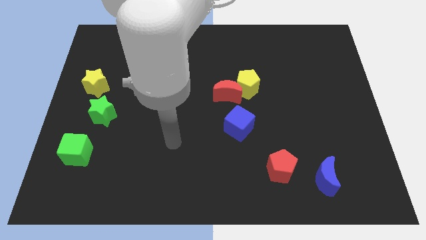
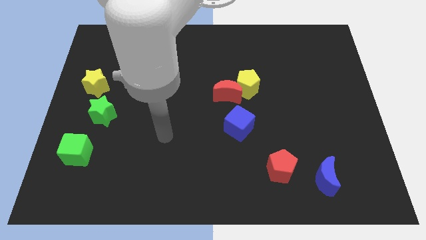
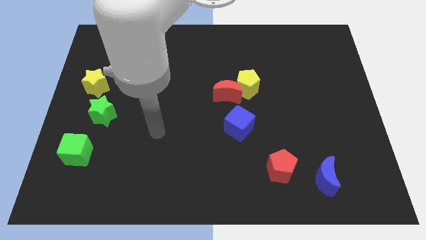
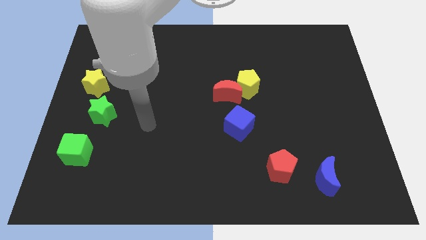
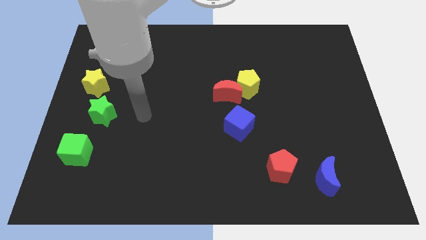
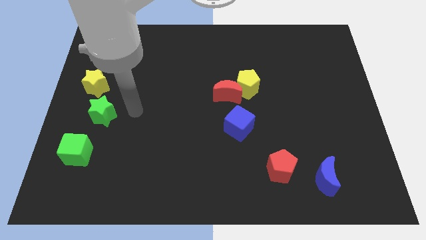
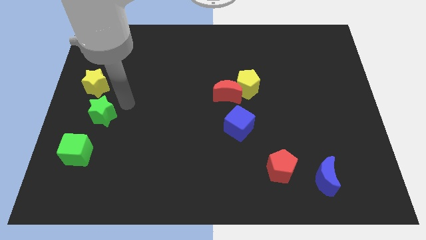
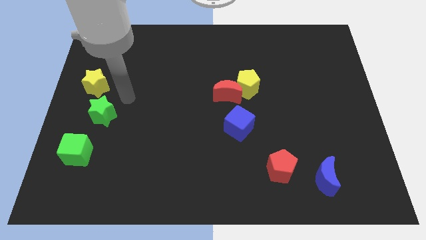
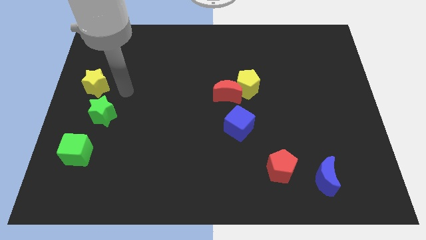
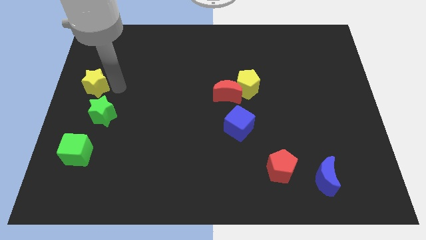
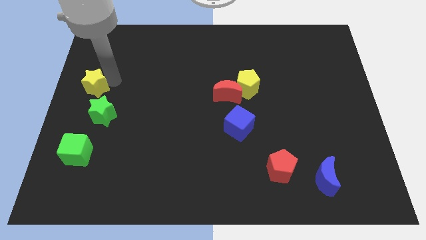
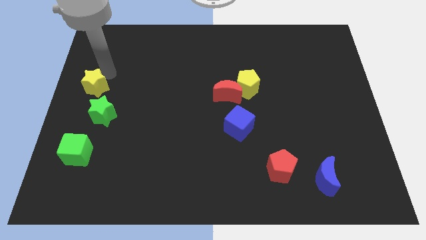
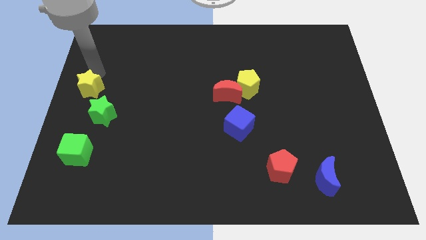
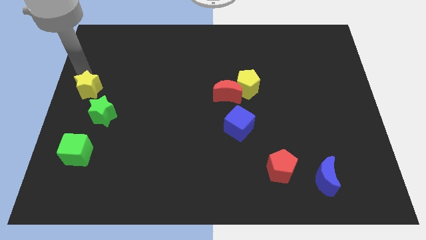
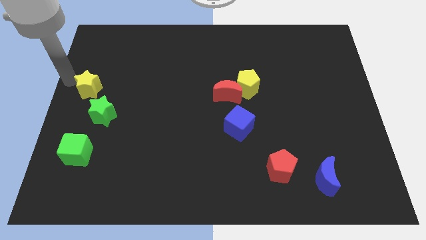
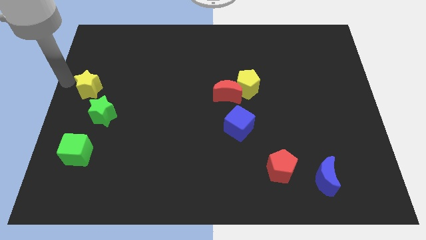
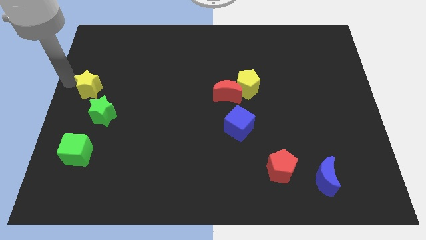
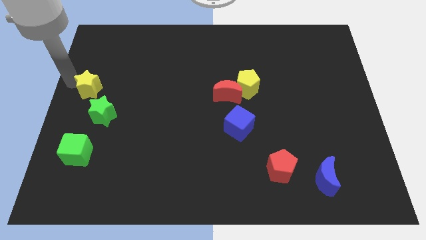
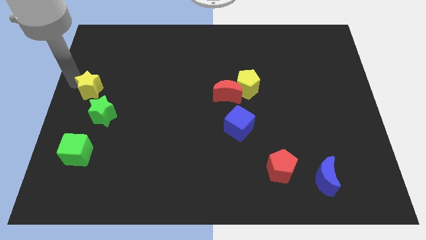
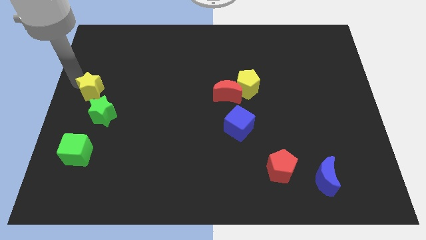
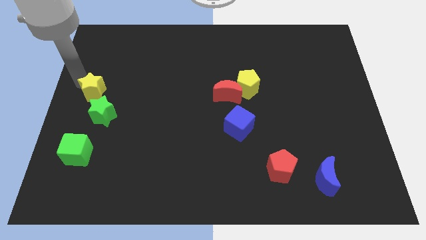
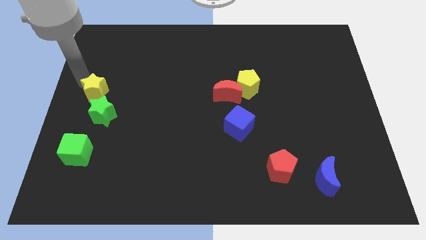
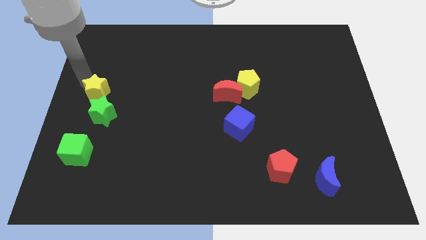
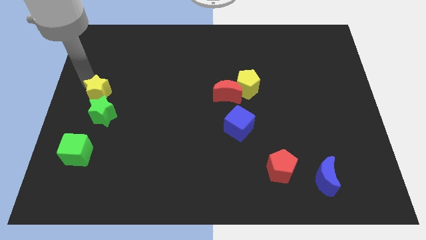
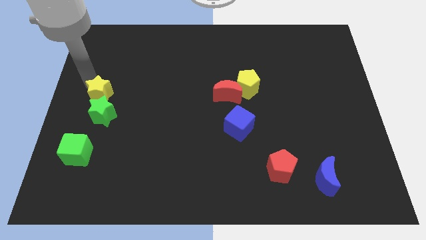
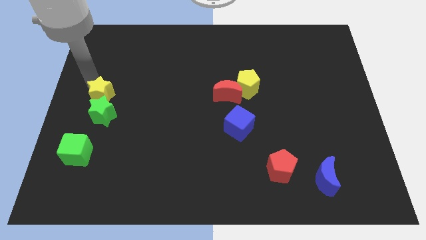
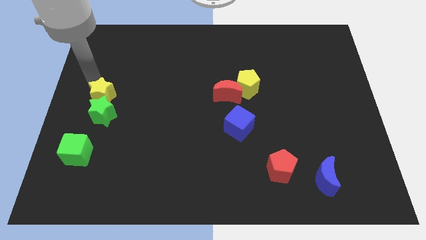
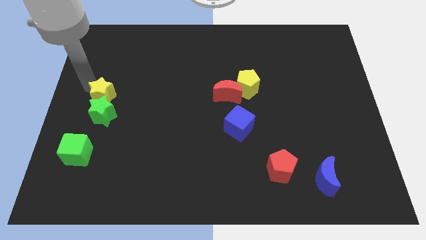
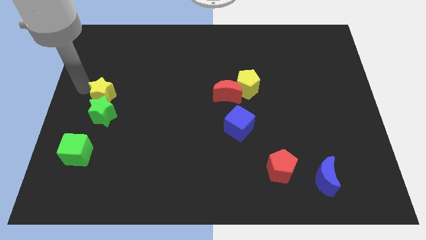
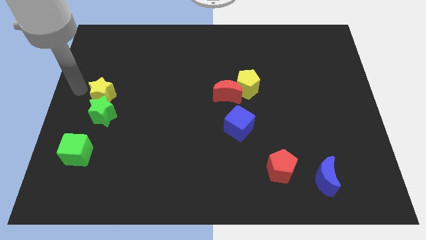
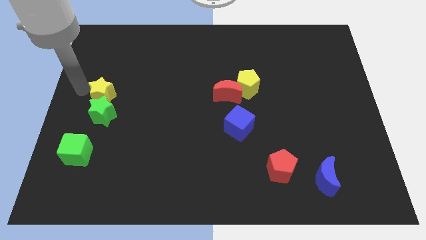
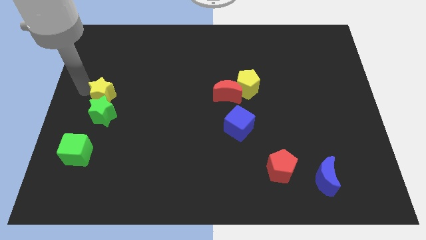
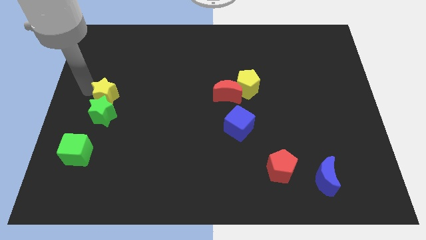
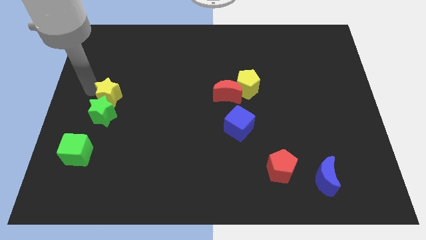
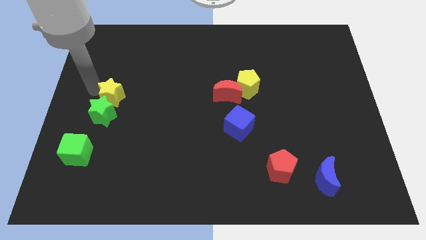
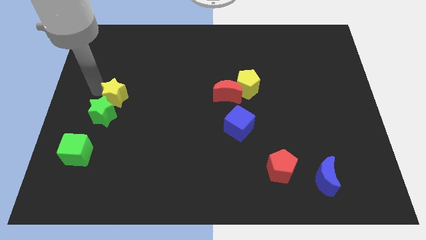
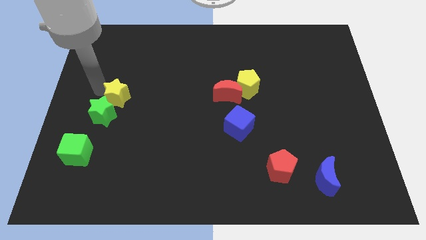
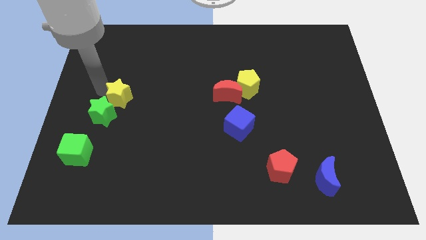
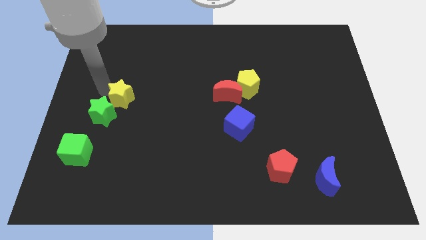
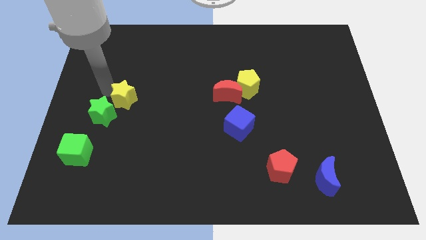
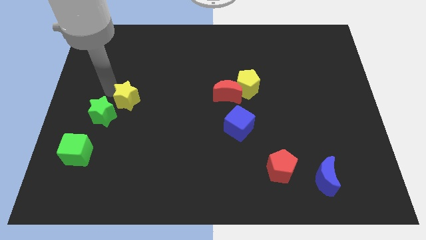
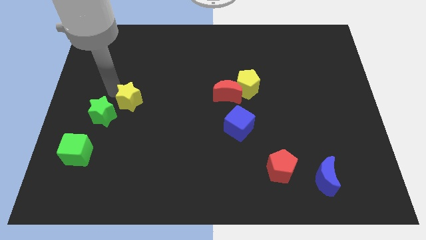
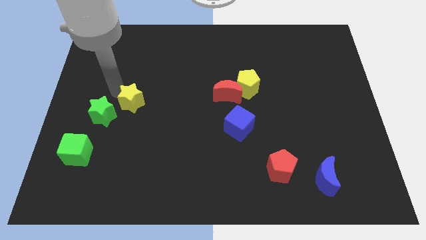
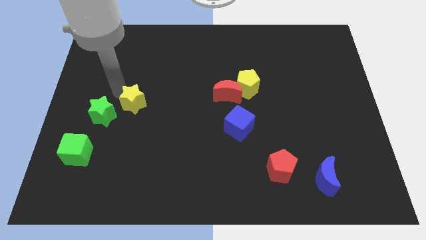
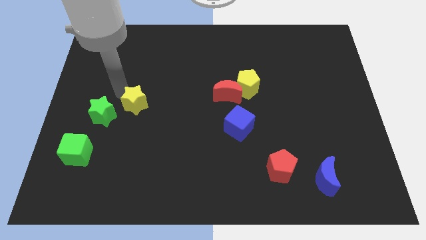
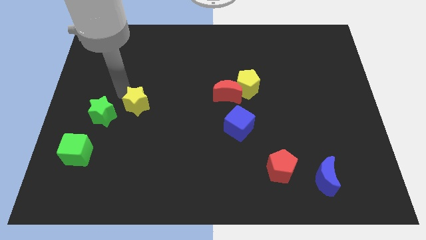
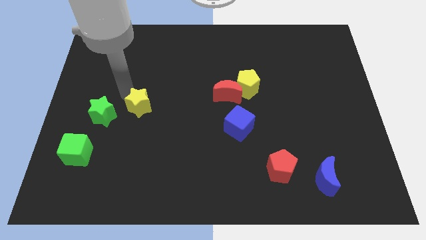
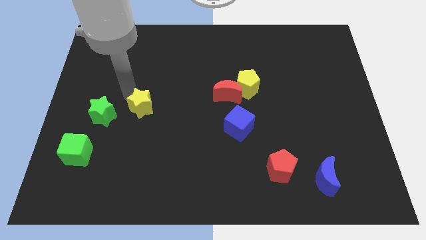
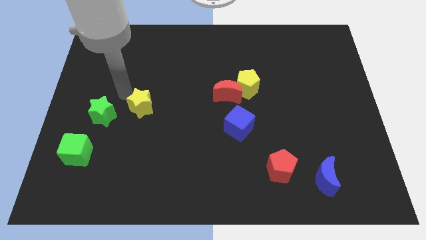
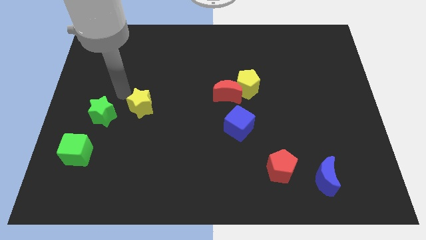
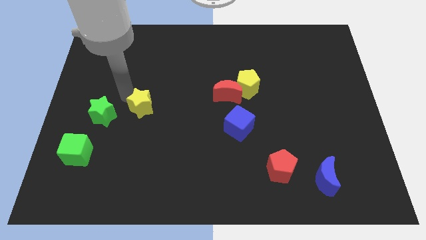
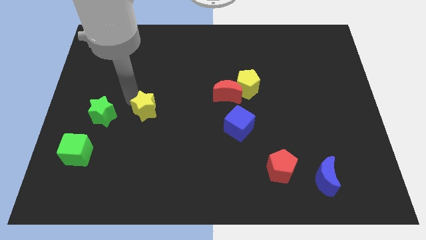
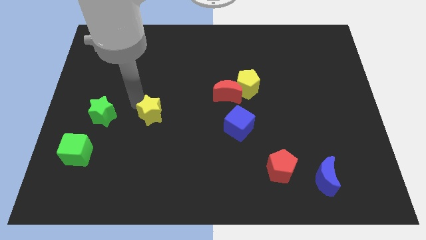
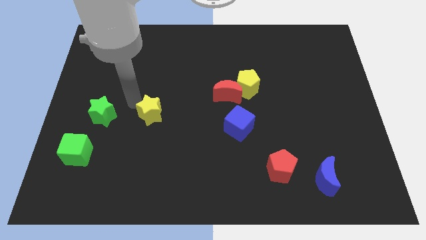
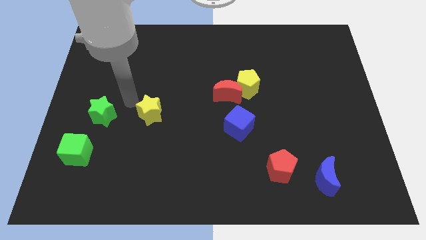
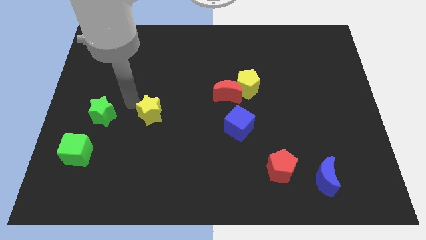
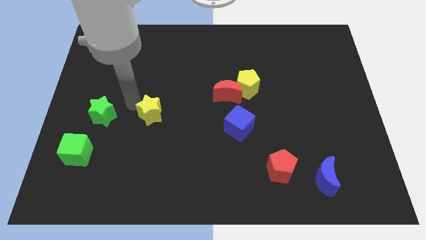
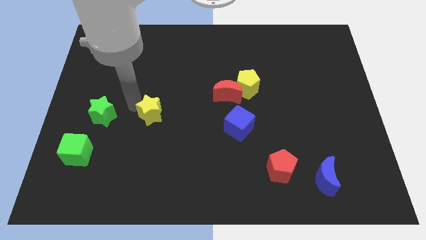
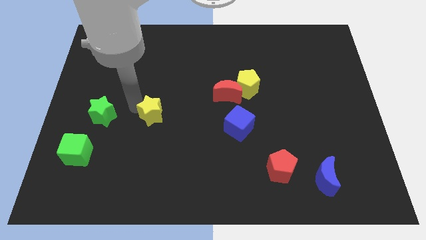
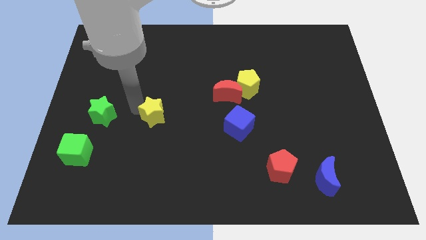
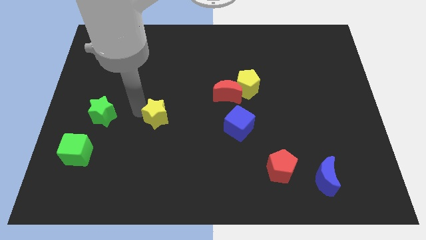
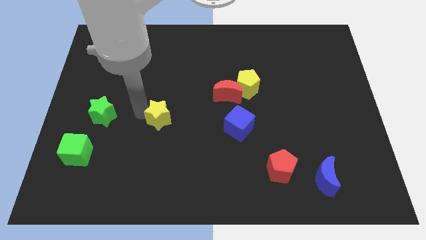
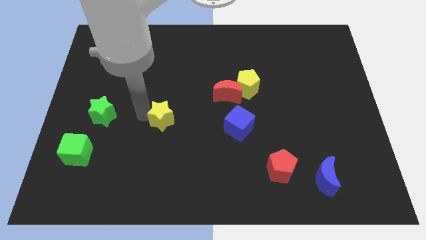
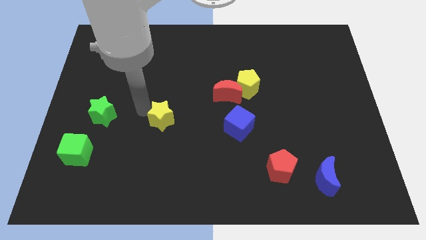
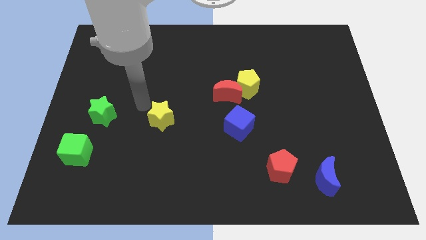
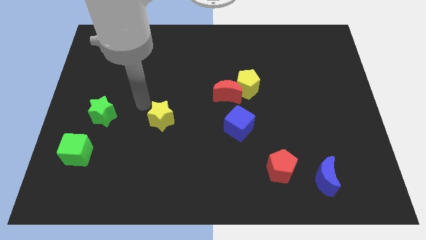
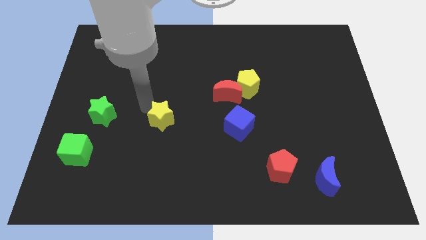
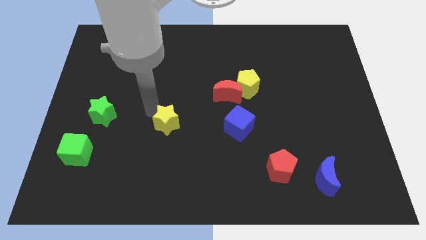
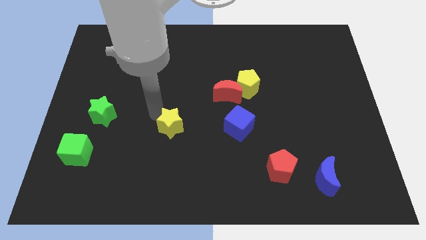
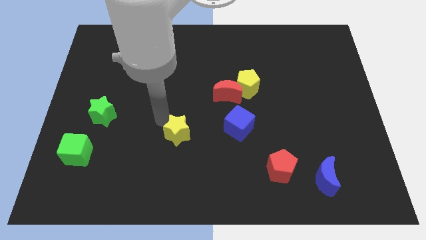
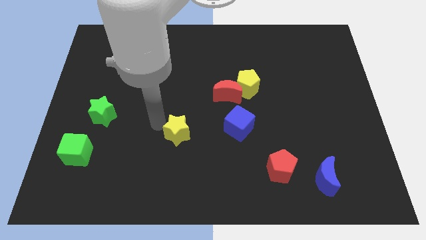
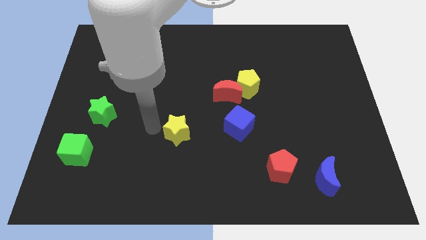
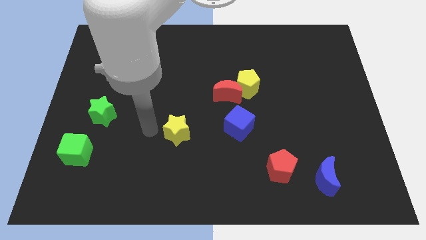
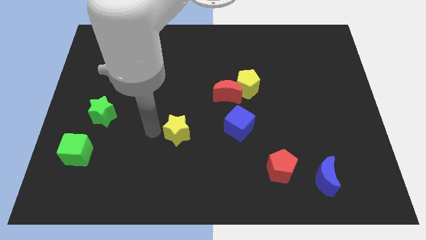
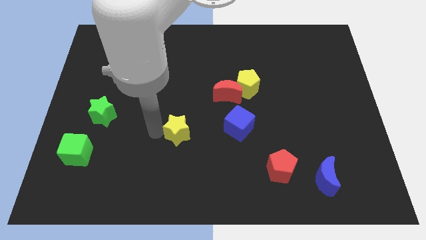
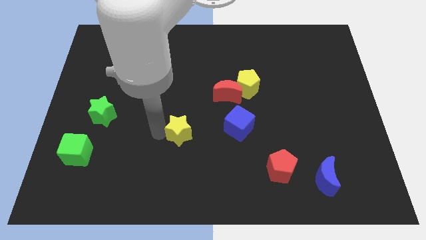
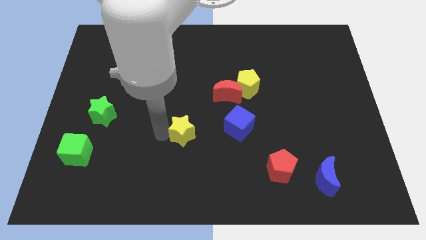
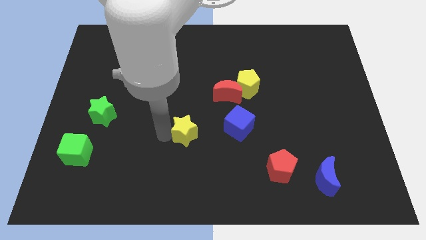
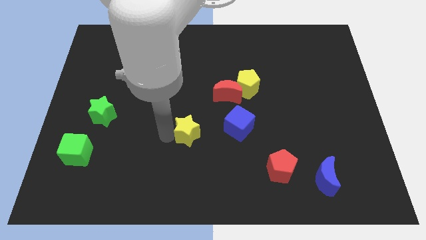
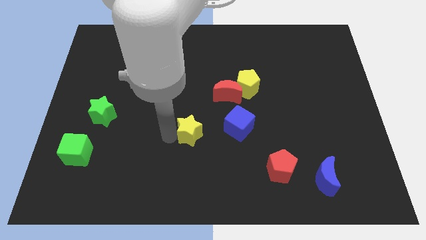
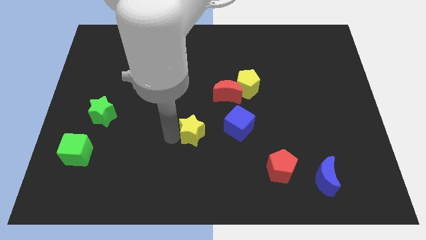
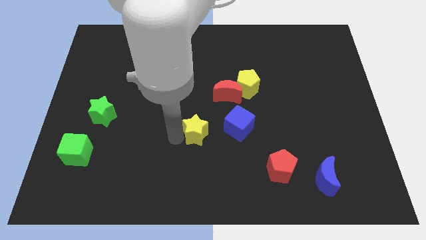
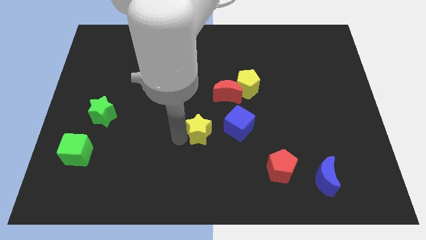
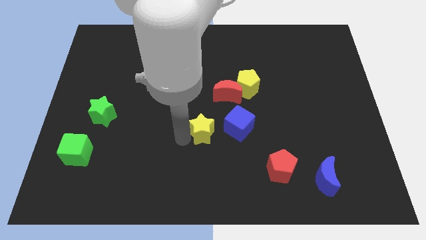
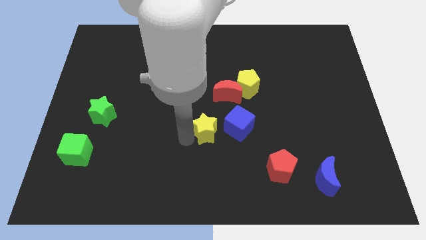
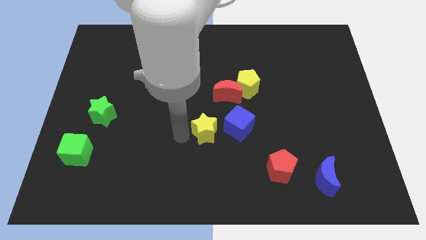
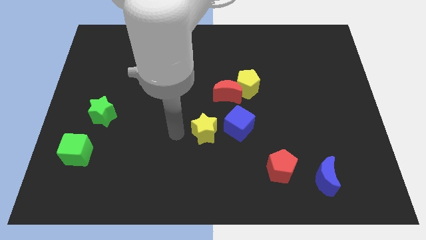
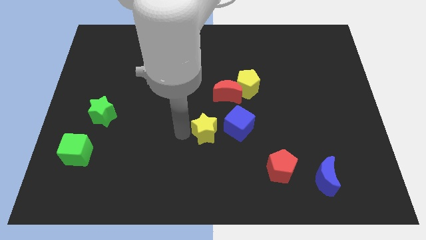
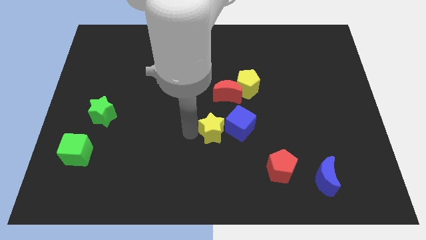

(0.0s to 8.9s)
move the yellow star to the bottom side of the red moon
